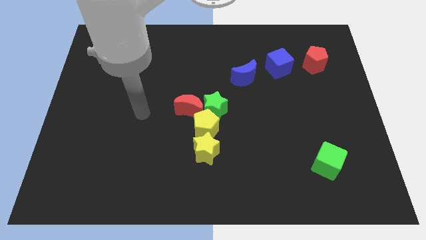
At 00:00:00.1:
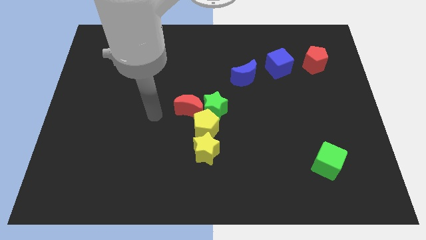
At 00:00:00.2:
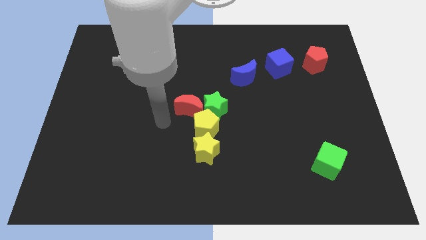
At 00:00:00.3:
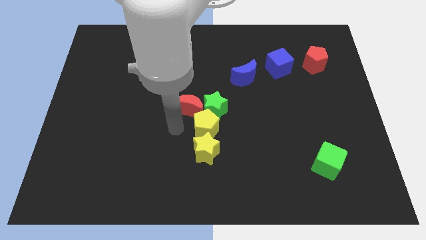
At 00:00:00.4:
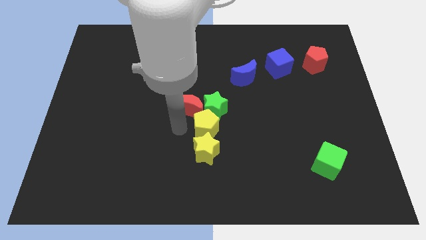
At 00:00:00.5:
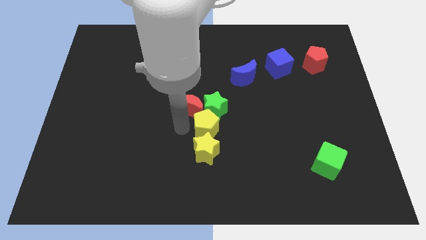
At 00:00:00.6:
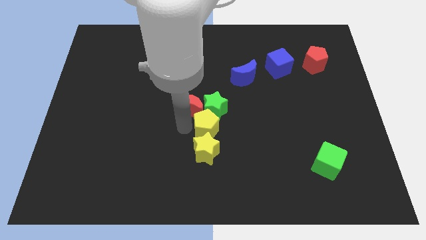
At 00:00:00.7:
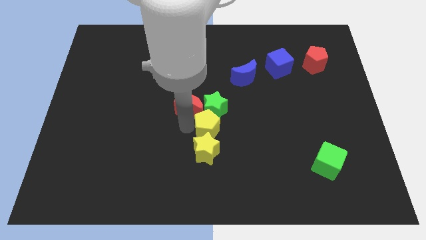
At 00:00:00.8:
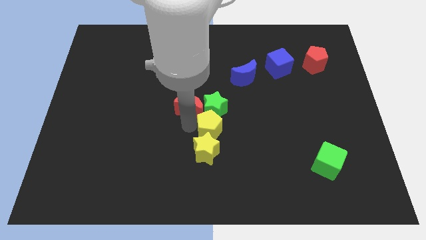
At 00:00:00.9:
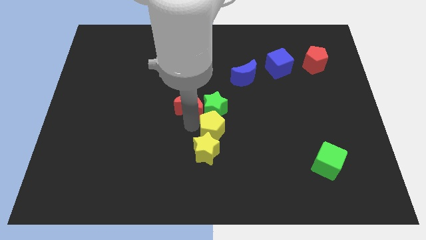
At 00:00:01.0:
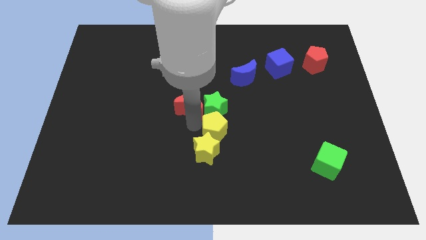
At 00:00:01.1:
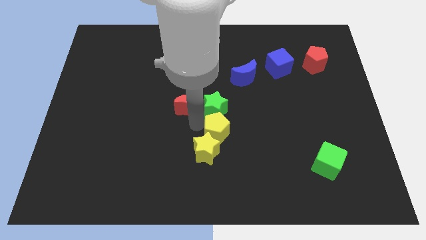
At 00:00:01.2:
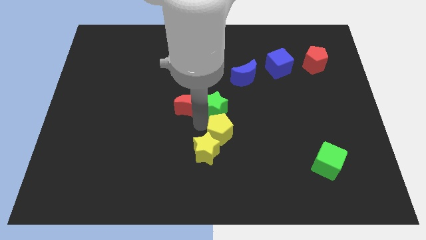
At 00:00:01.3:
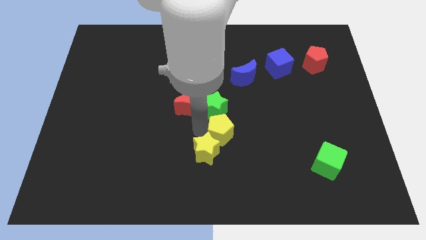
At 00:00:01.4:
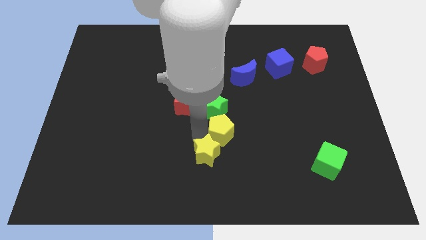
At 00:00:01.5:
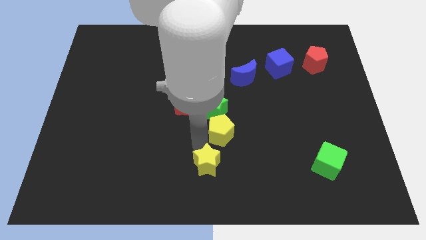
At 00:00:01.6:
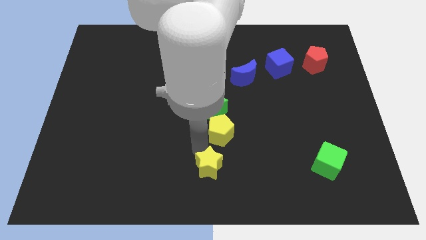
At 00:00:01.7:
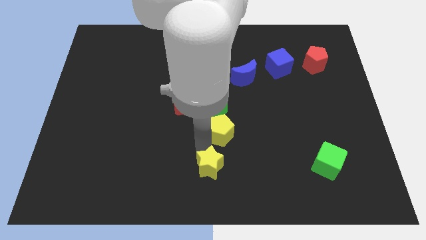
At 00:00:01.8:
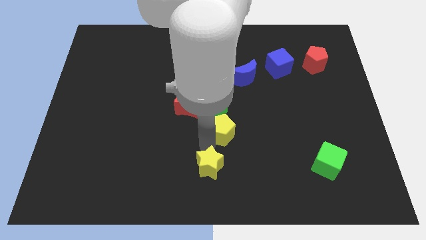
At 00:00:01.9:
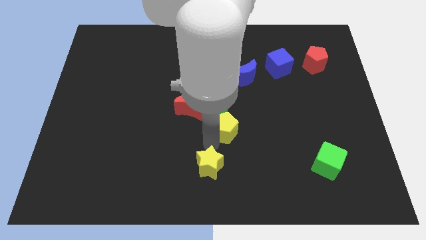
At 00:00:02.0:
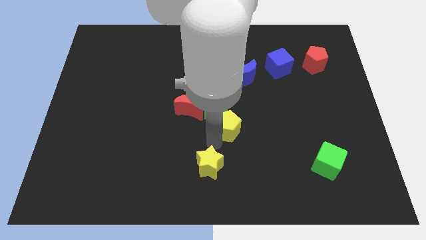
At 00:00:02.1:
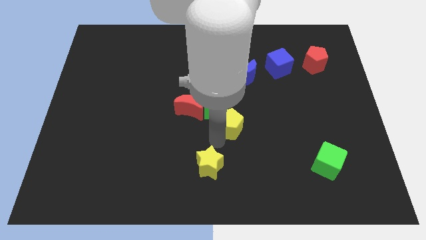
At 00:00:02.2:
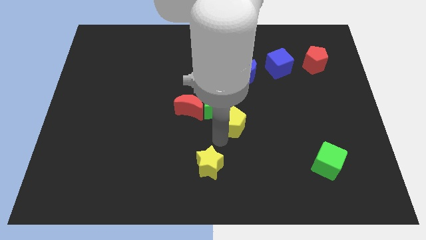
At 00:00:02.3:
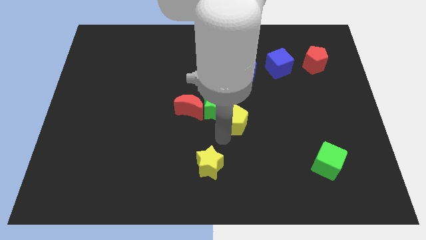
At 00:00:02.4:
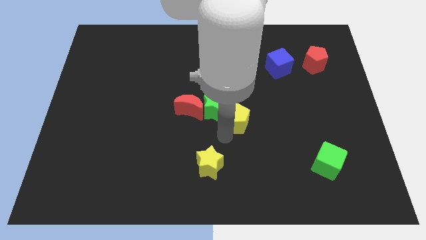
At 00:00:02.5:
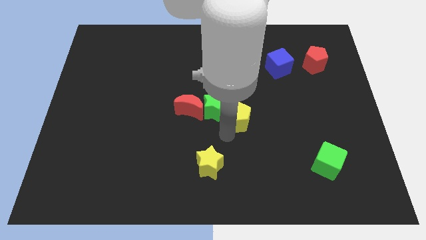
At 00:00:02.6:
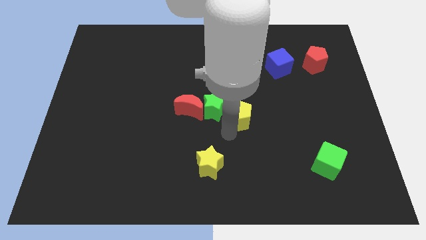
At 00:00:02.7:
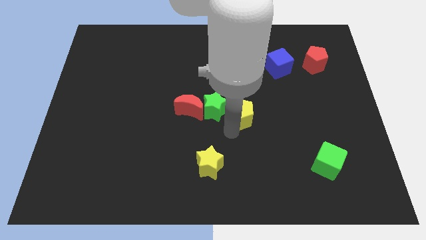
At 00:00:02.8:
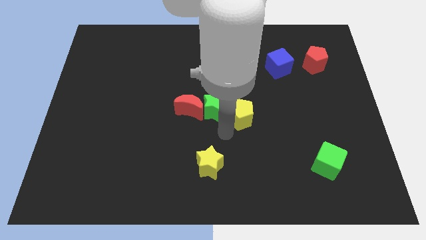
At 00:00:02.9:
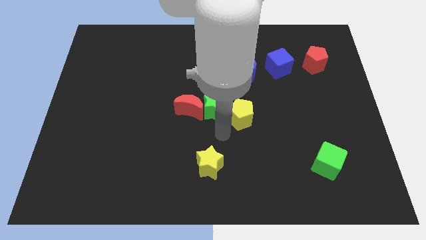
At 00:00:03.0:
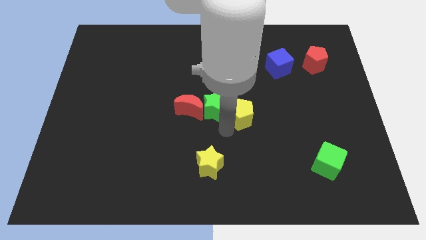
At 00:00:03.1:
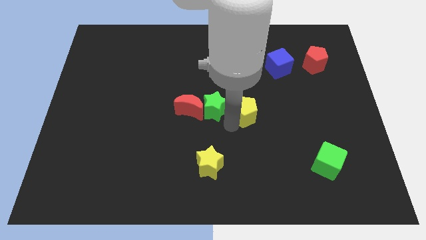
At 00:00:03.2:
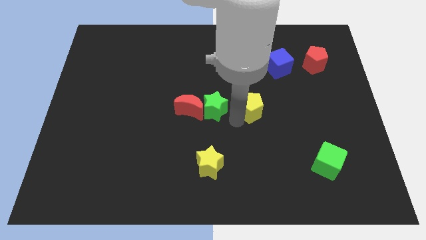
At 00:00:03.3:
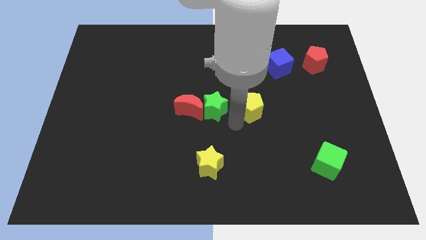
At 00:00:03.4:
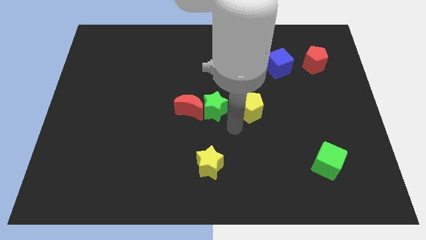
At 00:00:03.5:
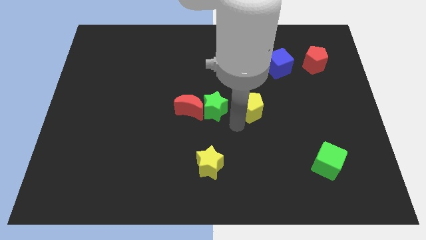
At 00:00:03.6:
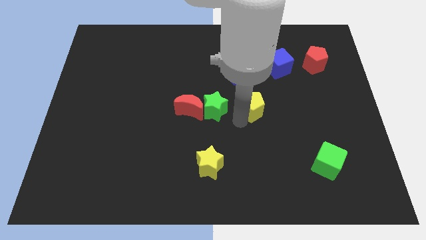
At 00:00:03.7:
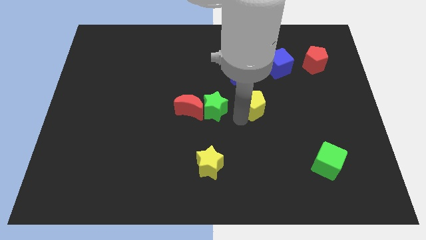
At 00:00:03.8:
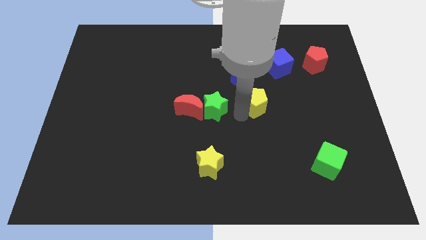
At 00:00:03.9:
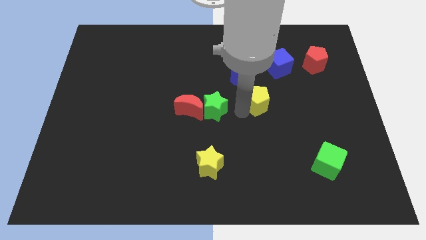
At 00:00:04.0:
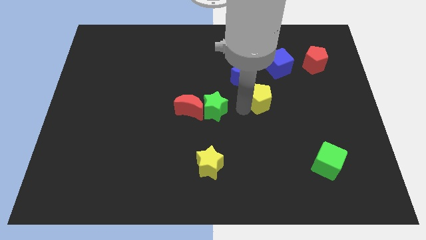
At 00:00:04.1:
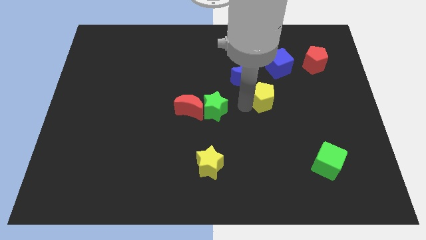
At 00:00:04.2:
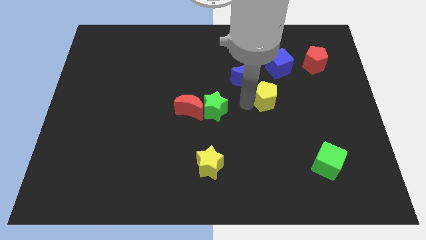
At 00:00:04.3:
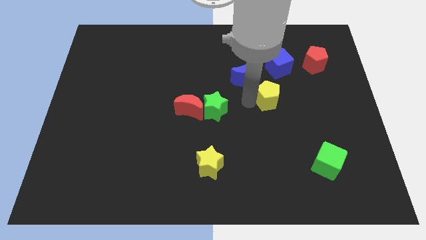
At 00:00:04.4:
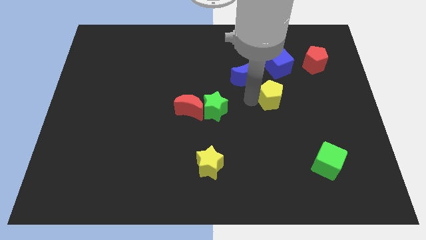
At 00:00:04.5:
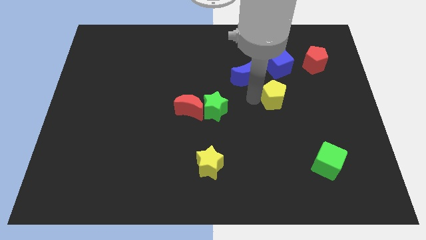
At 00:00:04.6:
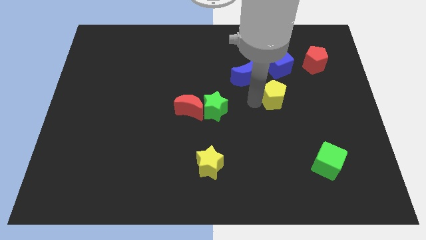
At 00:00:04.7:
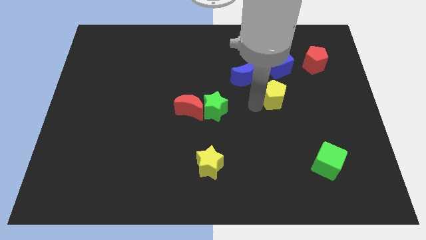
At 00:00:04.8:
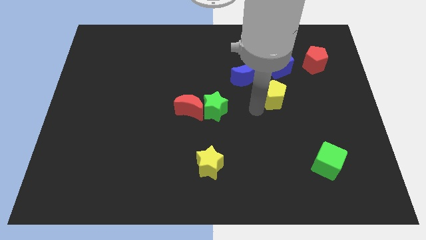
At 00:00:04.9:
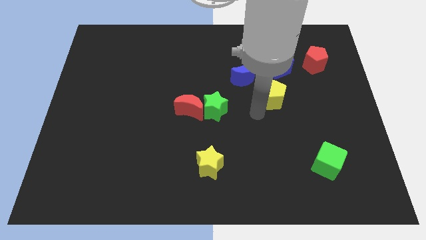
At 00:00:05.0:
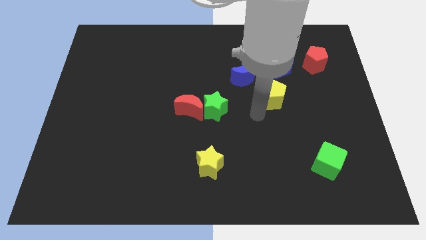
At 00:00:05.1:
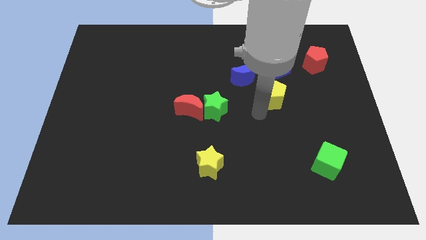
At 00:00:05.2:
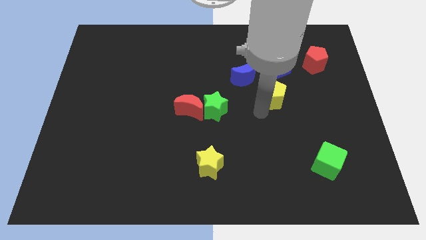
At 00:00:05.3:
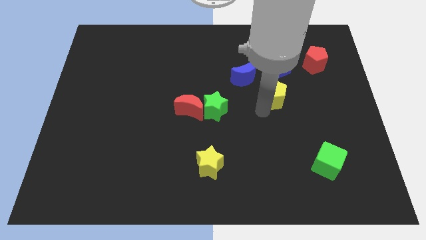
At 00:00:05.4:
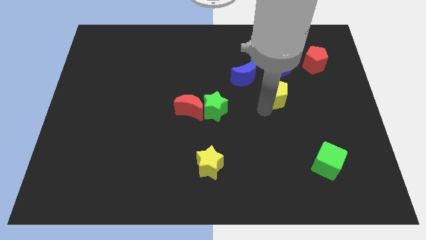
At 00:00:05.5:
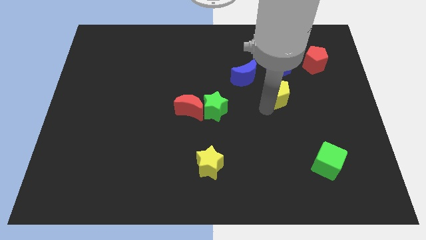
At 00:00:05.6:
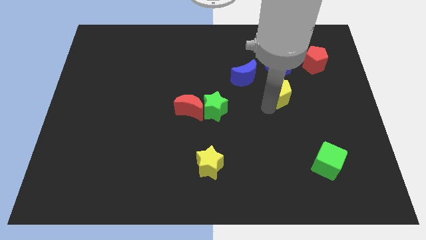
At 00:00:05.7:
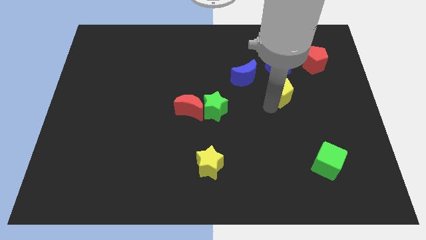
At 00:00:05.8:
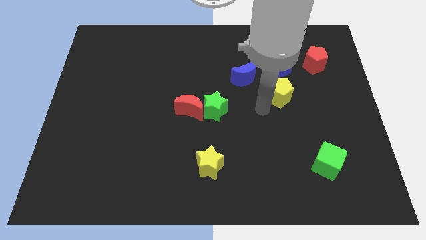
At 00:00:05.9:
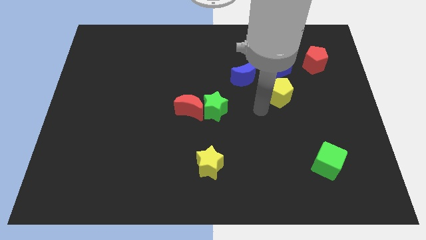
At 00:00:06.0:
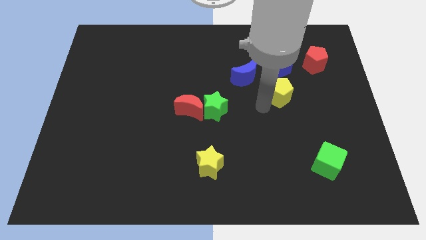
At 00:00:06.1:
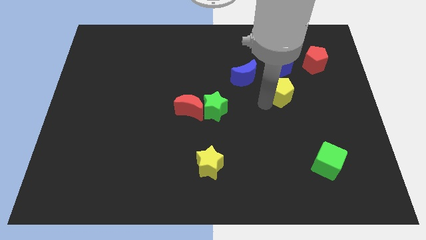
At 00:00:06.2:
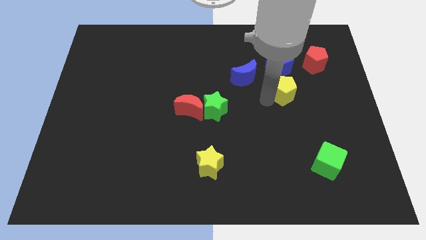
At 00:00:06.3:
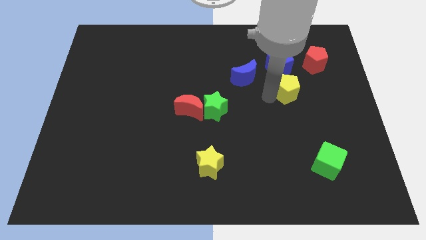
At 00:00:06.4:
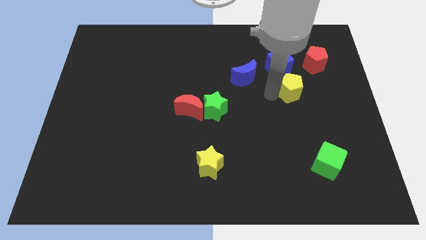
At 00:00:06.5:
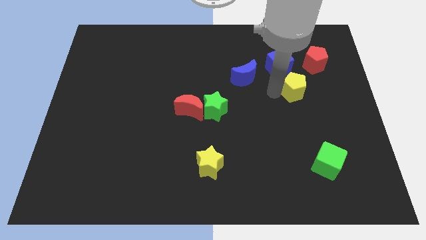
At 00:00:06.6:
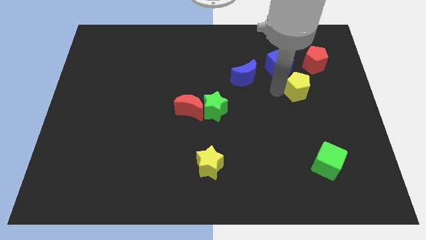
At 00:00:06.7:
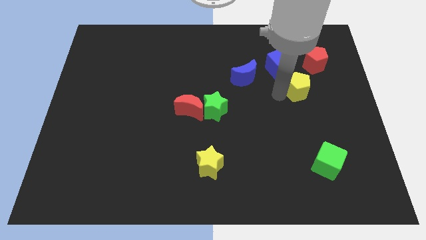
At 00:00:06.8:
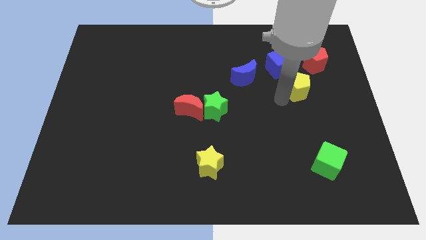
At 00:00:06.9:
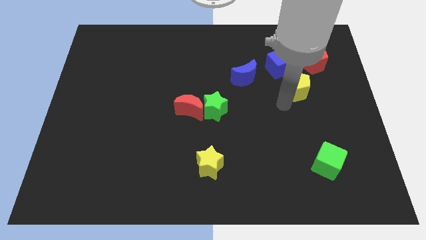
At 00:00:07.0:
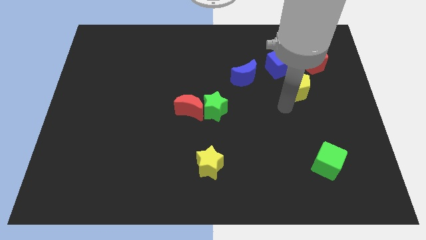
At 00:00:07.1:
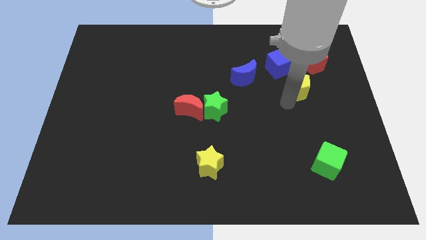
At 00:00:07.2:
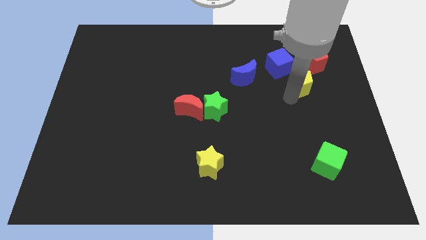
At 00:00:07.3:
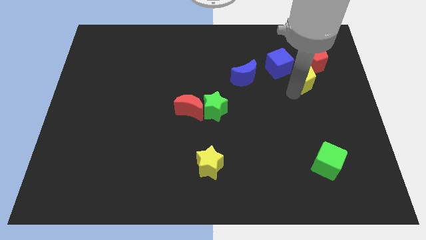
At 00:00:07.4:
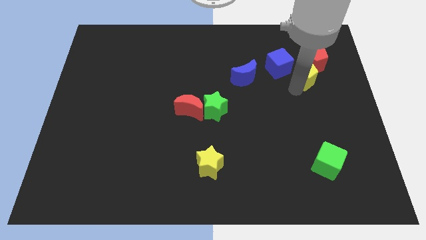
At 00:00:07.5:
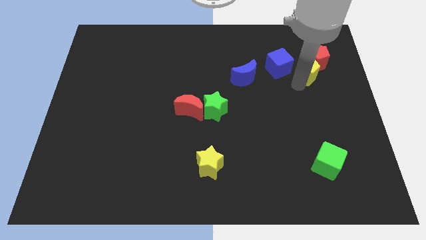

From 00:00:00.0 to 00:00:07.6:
put the yellow pentagon close to the red pentagon

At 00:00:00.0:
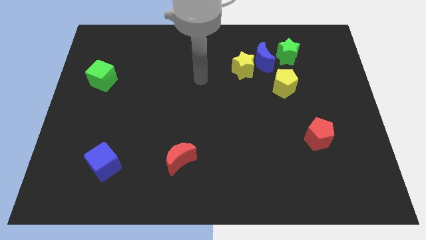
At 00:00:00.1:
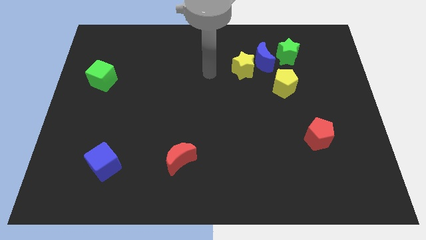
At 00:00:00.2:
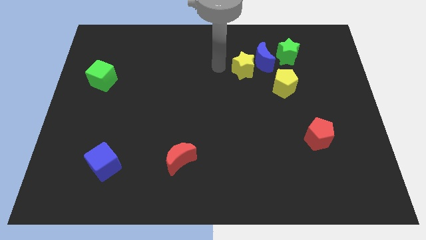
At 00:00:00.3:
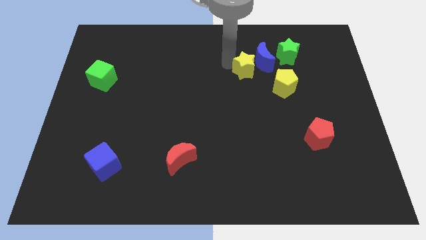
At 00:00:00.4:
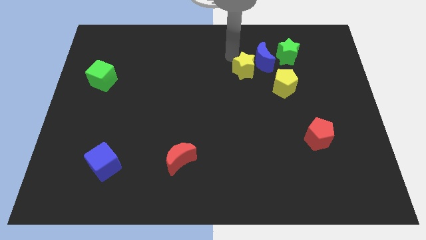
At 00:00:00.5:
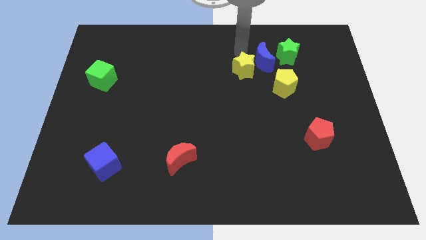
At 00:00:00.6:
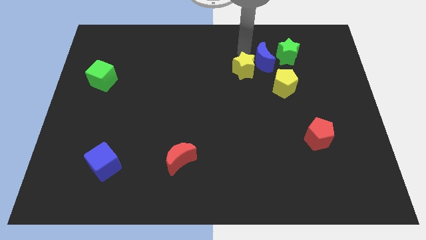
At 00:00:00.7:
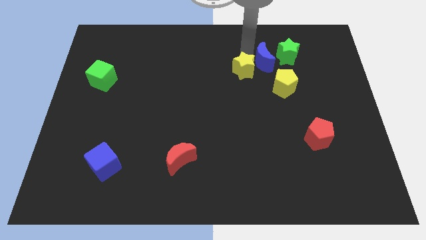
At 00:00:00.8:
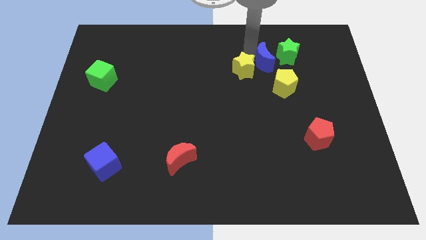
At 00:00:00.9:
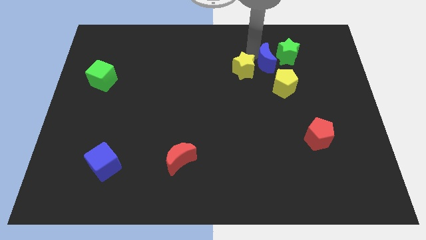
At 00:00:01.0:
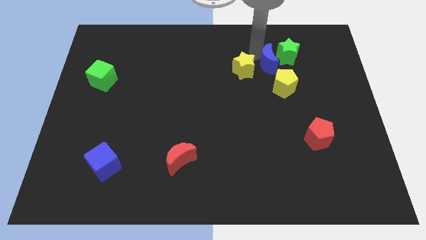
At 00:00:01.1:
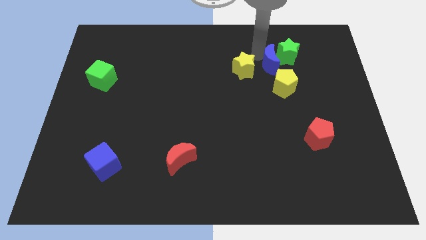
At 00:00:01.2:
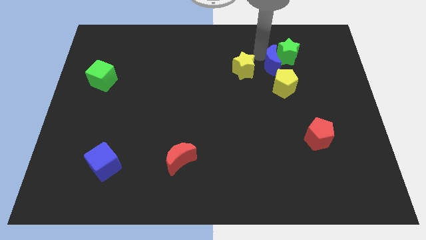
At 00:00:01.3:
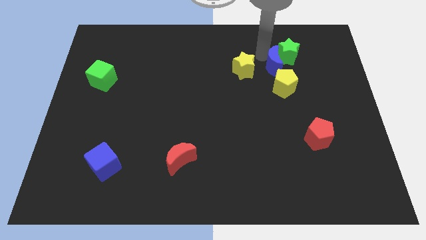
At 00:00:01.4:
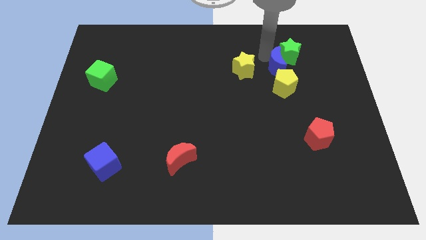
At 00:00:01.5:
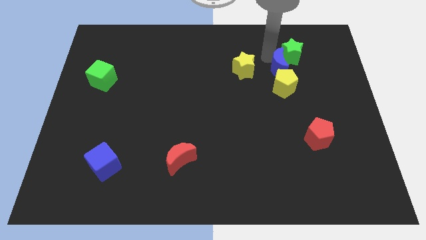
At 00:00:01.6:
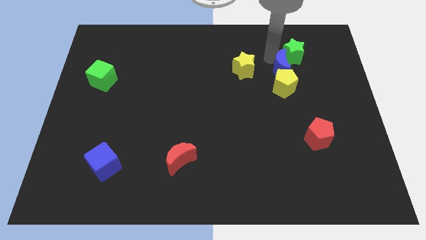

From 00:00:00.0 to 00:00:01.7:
put the blue moon towards the yellow pentagon
